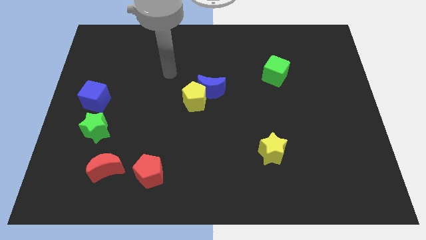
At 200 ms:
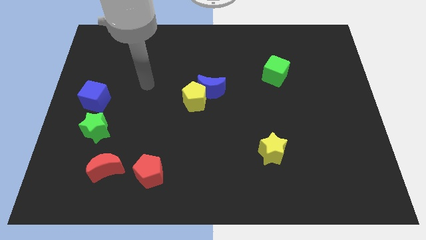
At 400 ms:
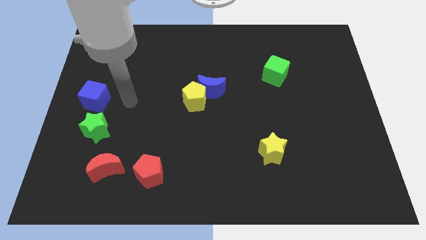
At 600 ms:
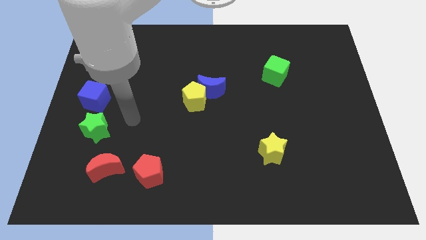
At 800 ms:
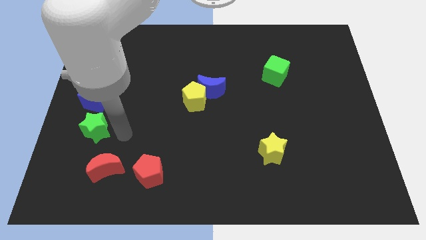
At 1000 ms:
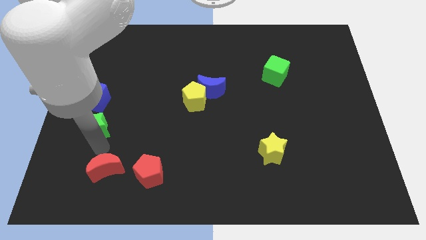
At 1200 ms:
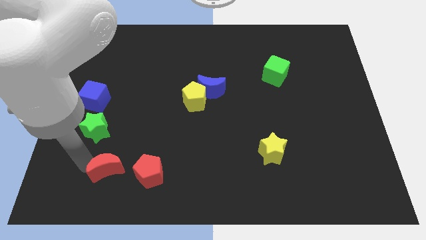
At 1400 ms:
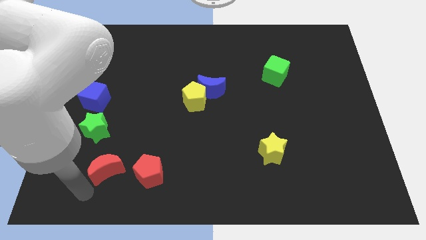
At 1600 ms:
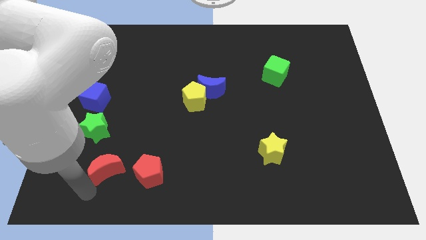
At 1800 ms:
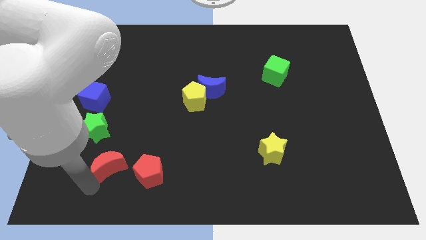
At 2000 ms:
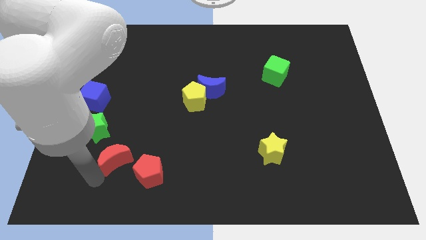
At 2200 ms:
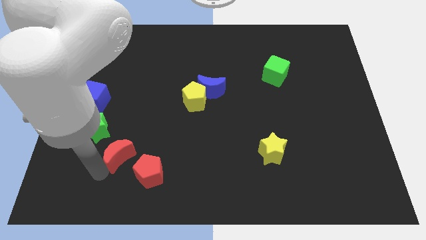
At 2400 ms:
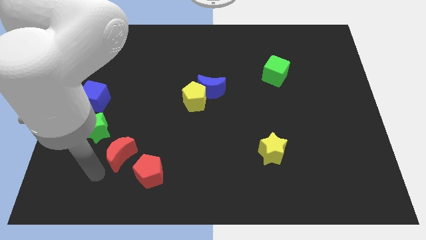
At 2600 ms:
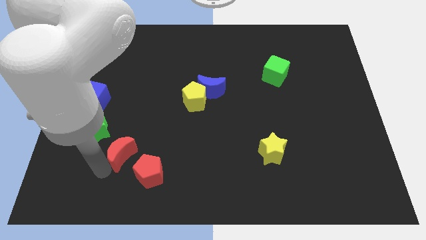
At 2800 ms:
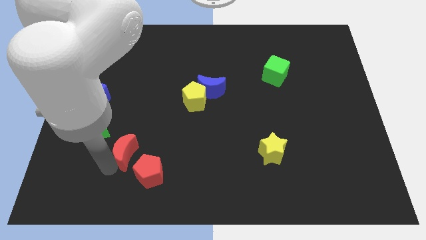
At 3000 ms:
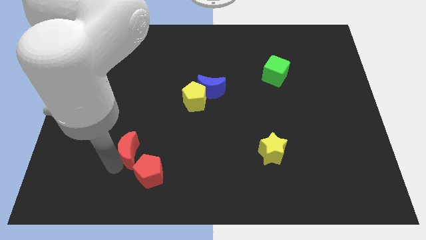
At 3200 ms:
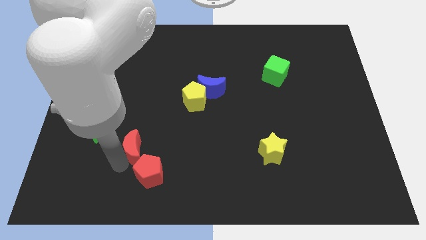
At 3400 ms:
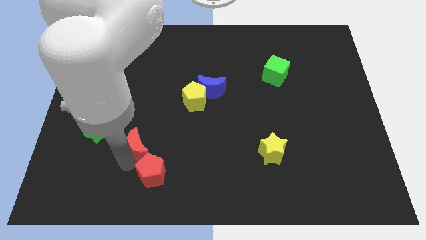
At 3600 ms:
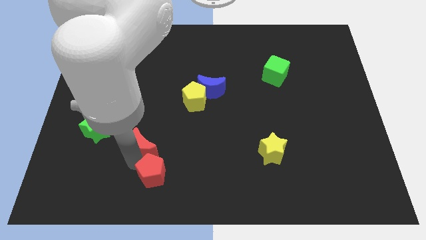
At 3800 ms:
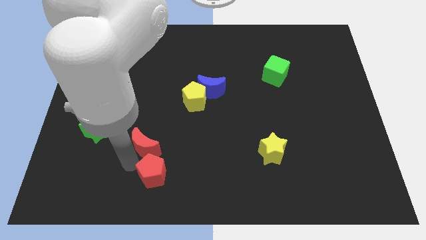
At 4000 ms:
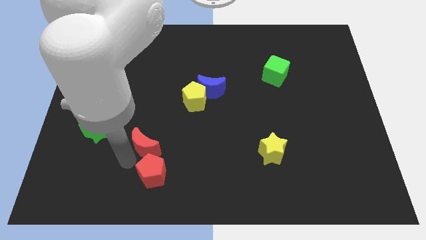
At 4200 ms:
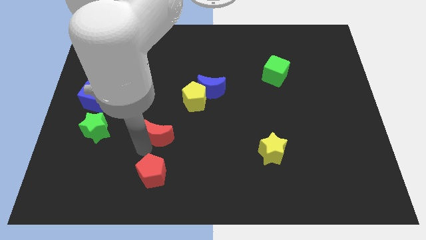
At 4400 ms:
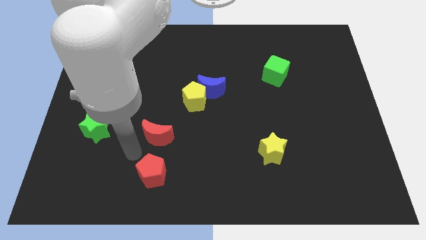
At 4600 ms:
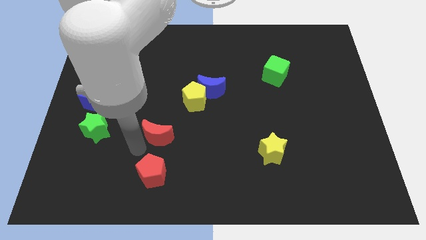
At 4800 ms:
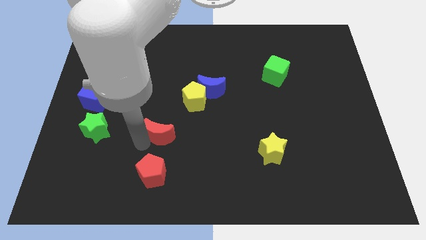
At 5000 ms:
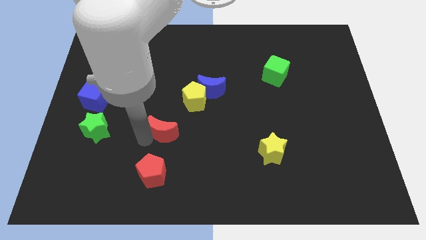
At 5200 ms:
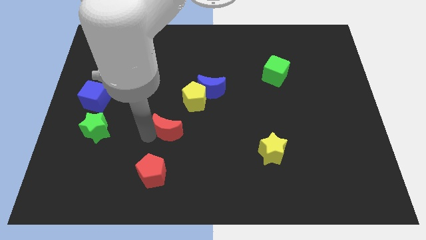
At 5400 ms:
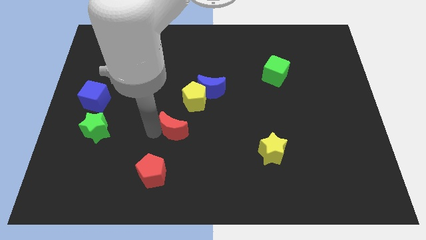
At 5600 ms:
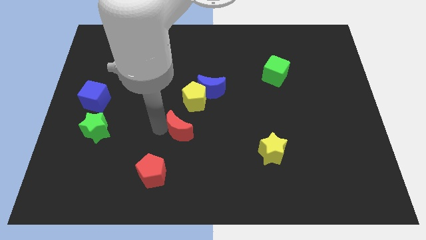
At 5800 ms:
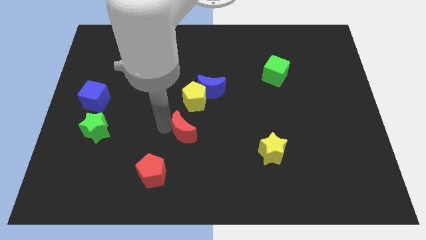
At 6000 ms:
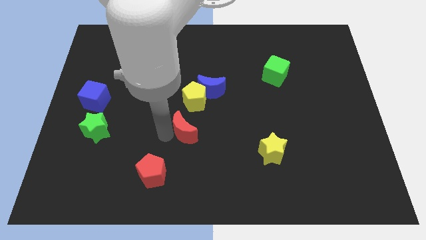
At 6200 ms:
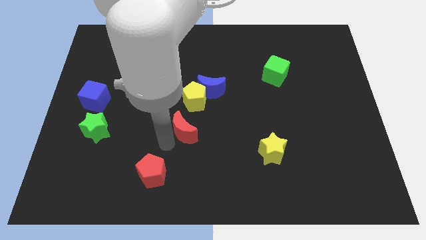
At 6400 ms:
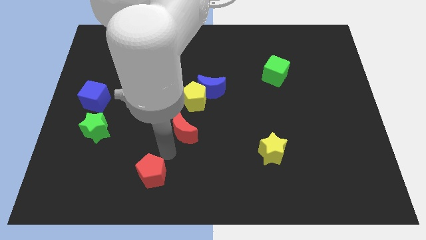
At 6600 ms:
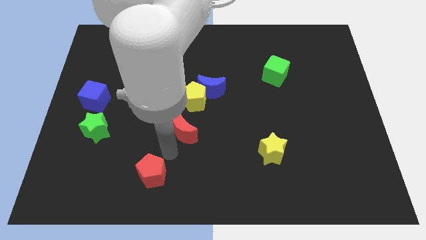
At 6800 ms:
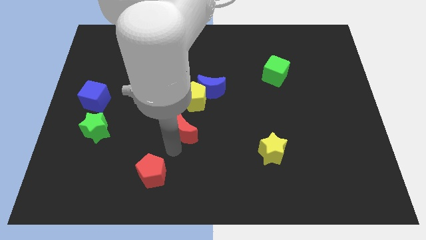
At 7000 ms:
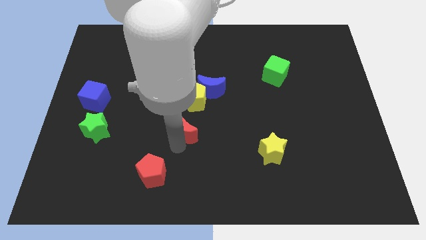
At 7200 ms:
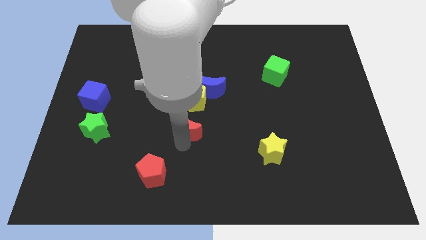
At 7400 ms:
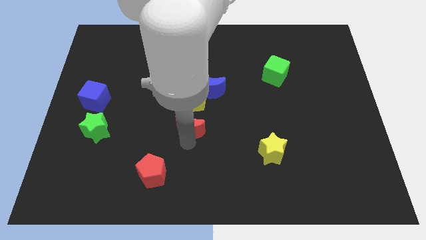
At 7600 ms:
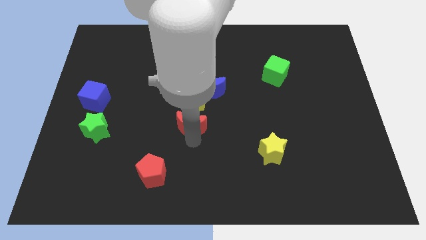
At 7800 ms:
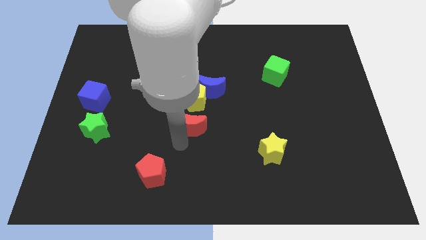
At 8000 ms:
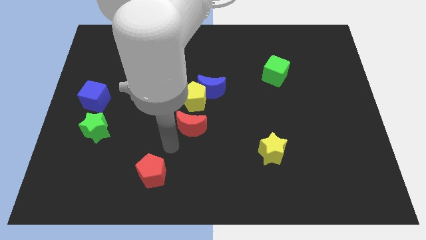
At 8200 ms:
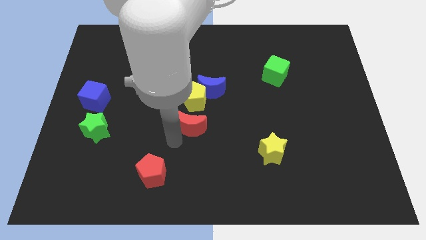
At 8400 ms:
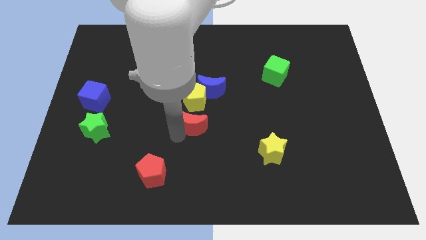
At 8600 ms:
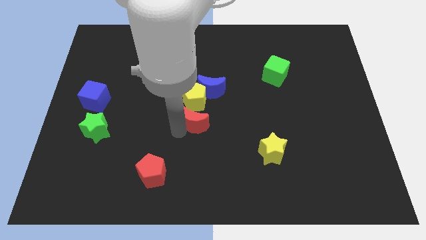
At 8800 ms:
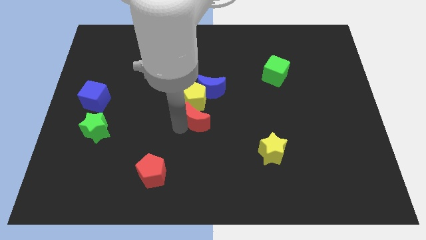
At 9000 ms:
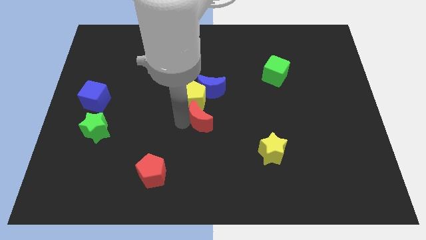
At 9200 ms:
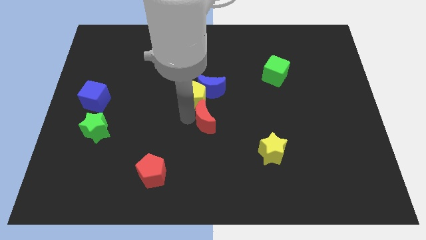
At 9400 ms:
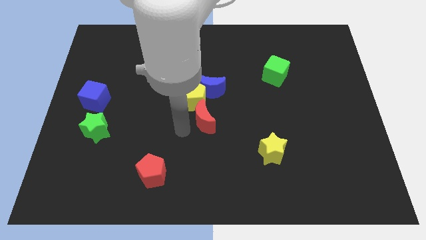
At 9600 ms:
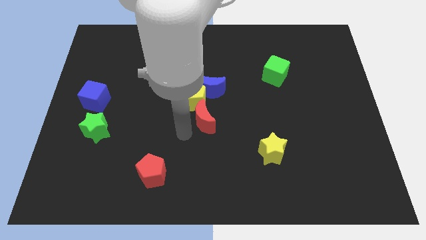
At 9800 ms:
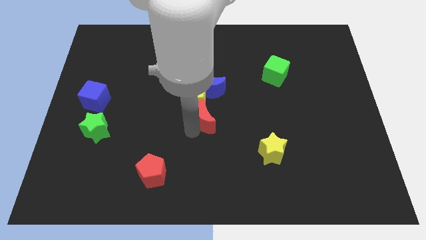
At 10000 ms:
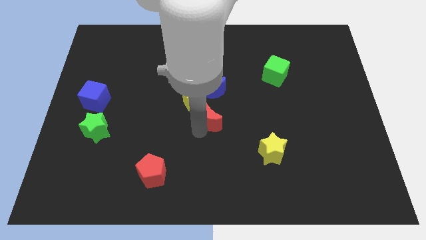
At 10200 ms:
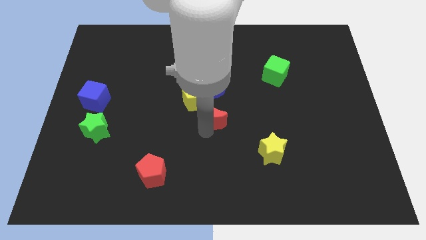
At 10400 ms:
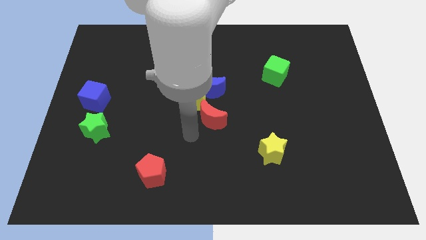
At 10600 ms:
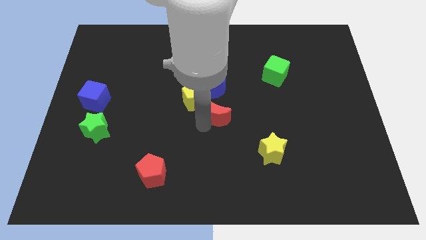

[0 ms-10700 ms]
put the red moon to the right of the yellow pentagon

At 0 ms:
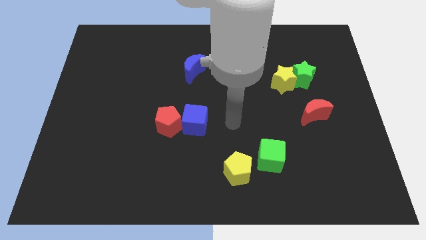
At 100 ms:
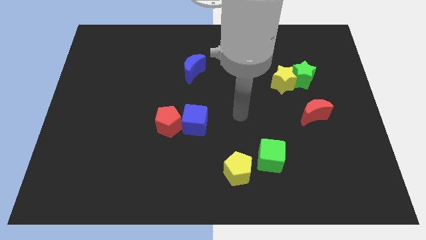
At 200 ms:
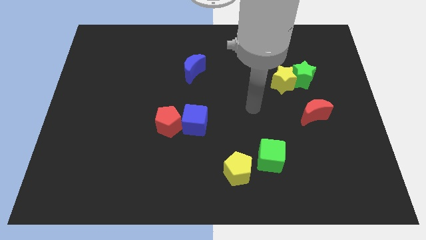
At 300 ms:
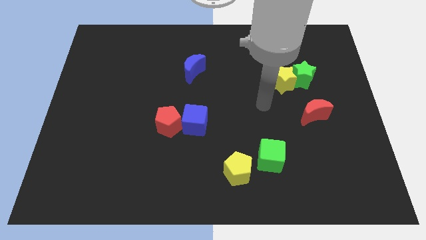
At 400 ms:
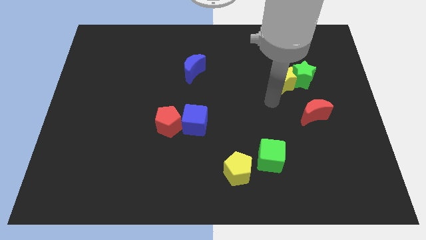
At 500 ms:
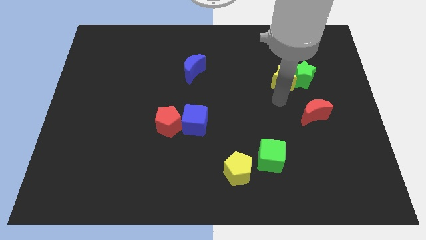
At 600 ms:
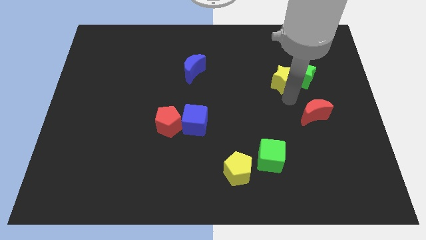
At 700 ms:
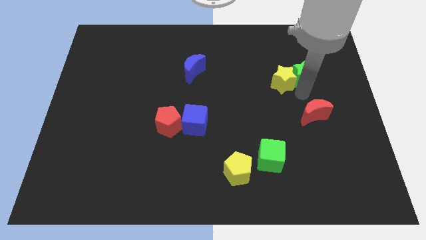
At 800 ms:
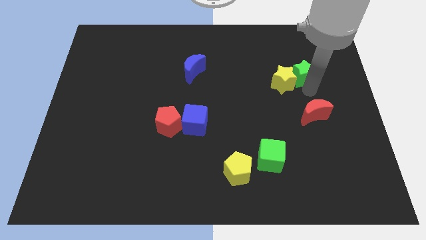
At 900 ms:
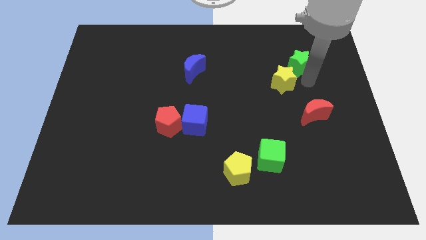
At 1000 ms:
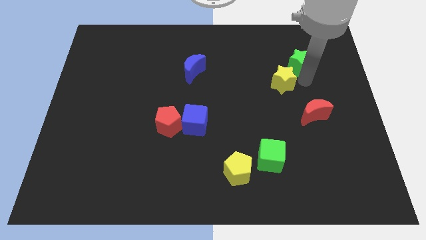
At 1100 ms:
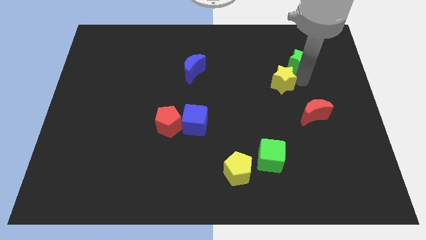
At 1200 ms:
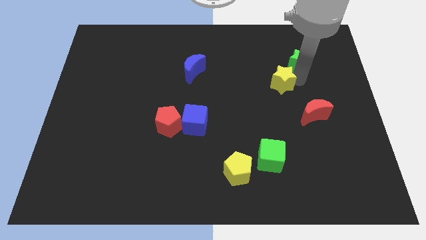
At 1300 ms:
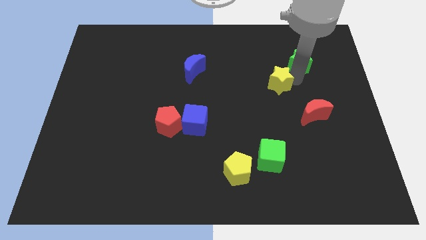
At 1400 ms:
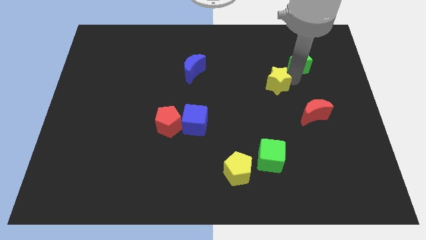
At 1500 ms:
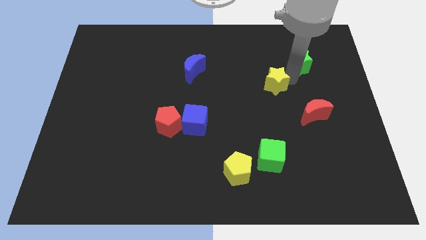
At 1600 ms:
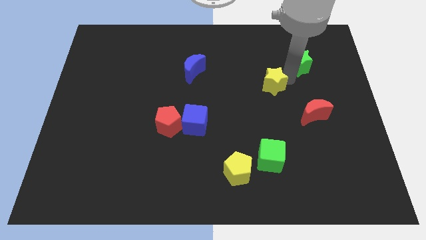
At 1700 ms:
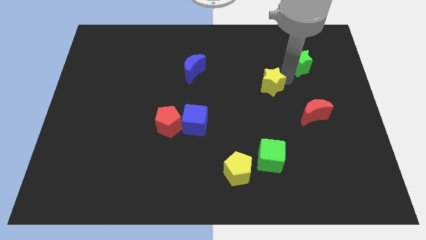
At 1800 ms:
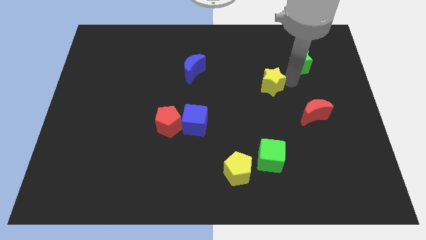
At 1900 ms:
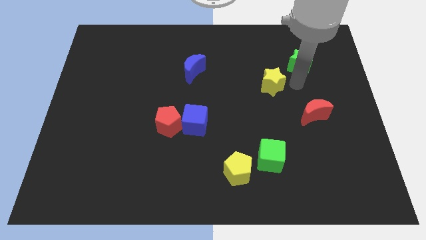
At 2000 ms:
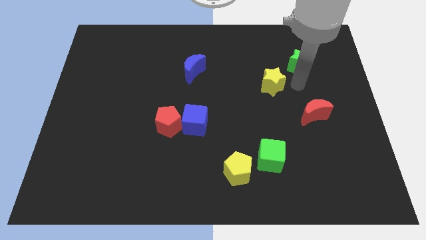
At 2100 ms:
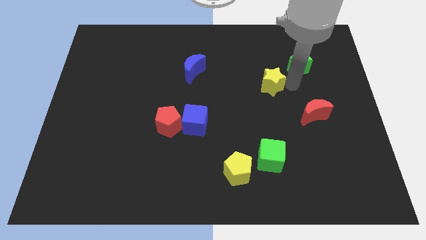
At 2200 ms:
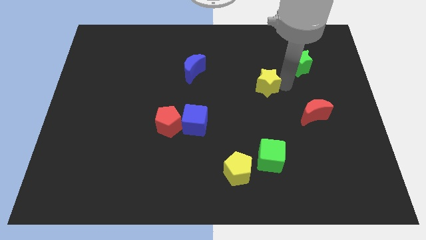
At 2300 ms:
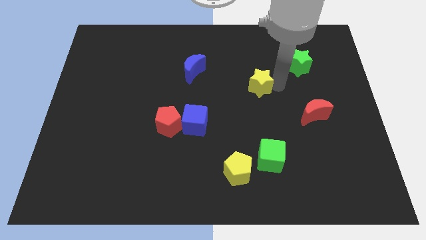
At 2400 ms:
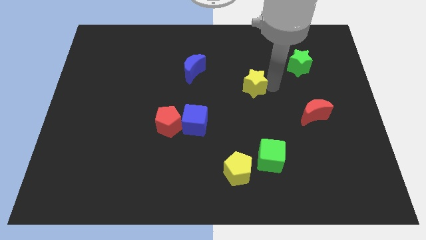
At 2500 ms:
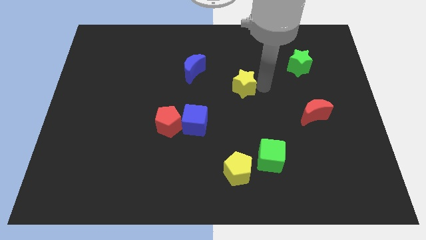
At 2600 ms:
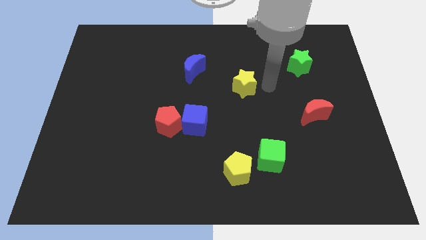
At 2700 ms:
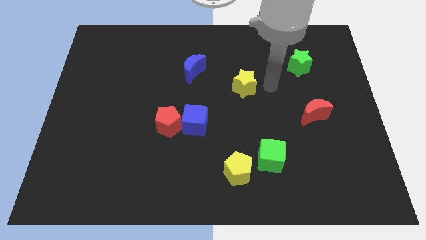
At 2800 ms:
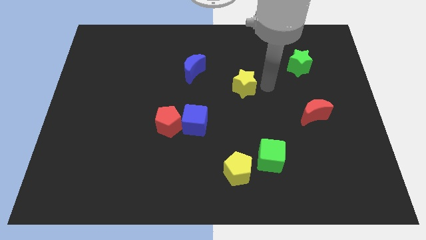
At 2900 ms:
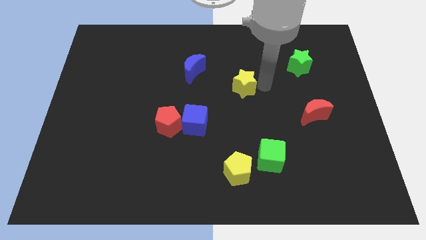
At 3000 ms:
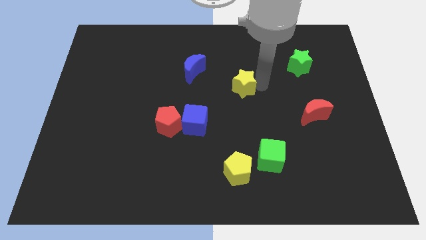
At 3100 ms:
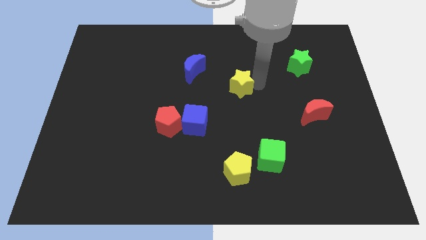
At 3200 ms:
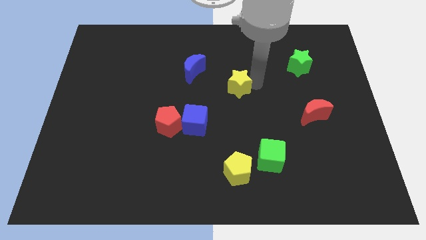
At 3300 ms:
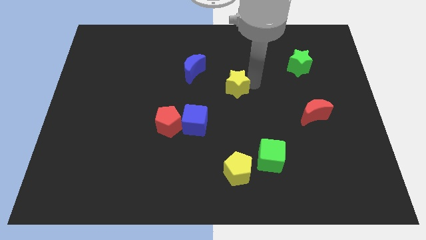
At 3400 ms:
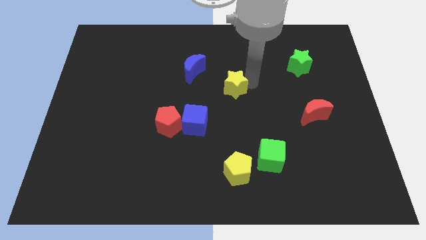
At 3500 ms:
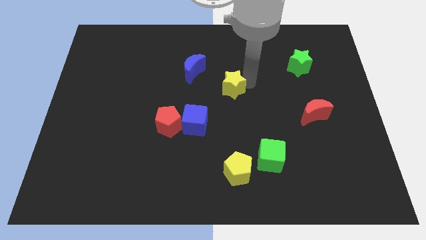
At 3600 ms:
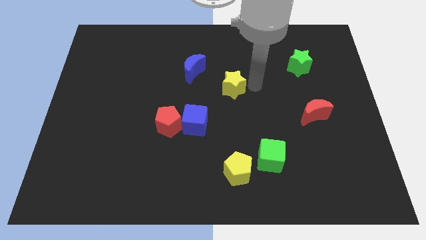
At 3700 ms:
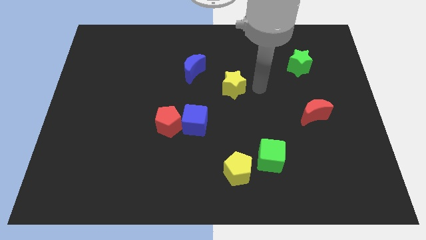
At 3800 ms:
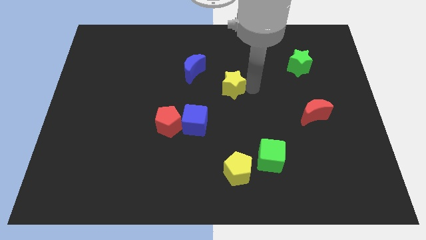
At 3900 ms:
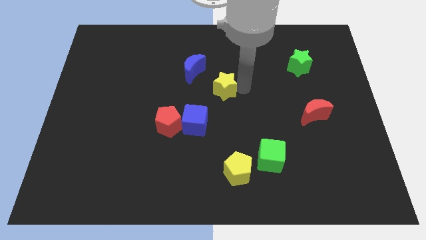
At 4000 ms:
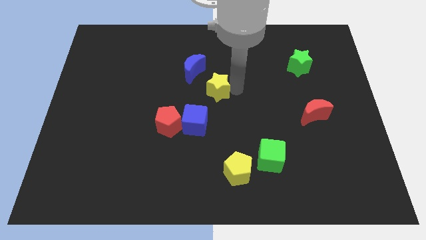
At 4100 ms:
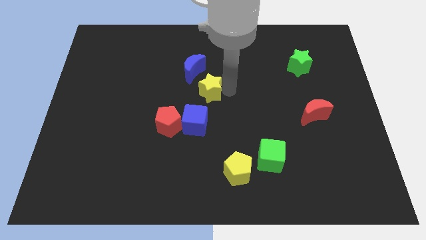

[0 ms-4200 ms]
put the yellow star to the top of the blue cube
